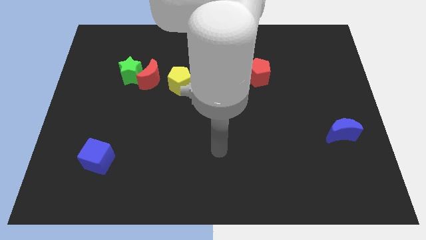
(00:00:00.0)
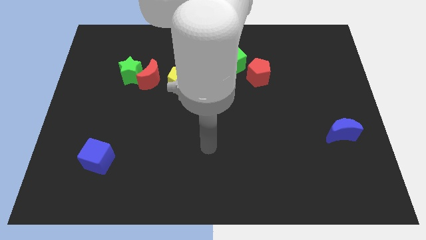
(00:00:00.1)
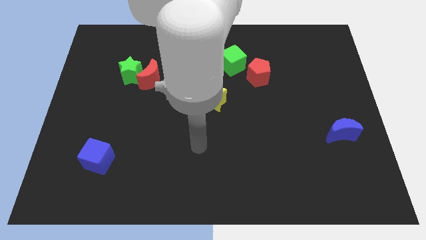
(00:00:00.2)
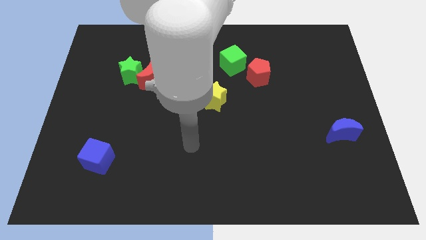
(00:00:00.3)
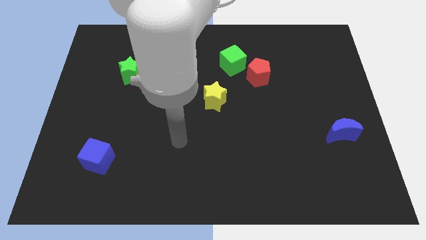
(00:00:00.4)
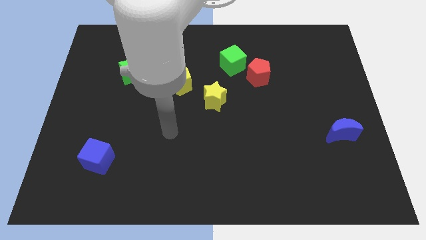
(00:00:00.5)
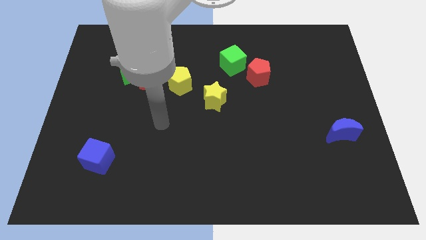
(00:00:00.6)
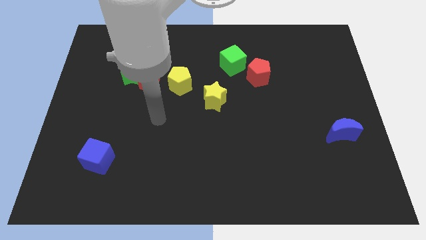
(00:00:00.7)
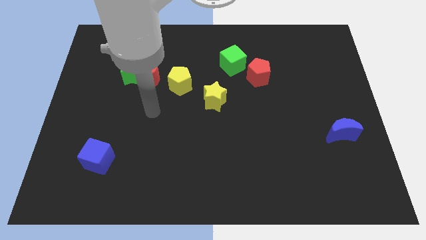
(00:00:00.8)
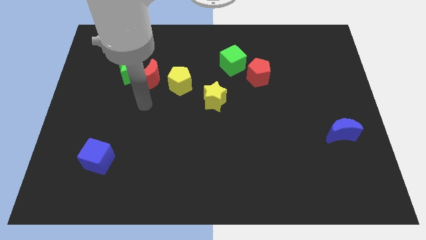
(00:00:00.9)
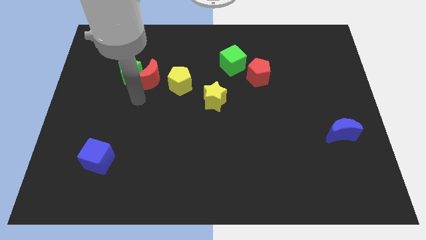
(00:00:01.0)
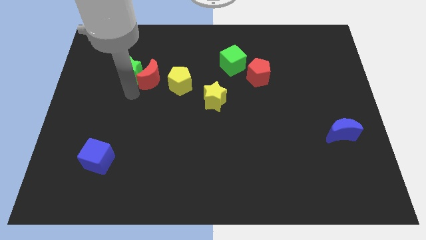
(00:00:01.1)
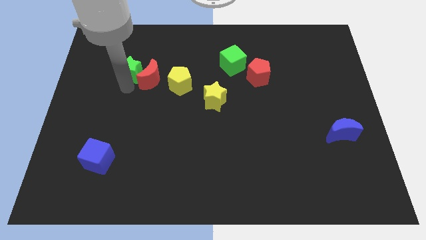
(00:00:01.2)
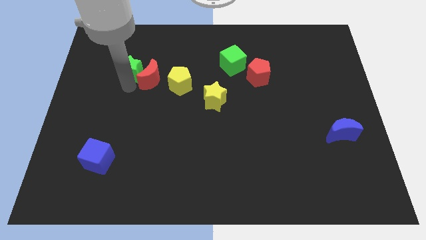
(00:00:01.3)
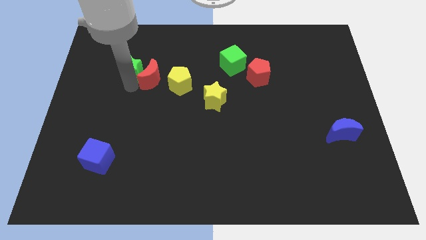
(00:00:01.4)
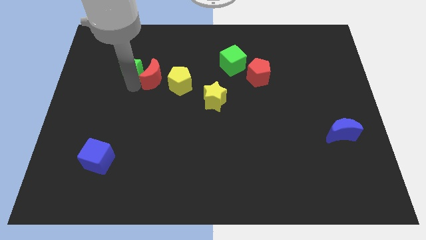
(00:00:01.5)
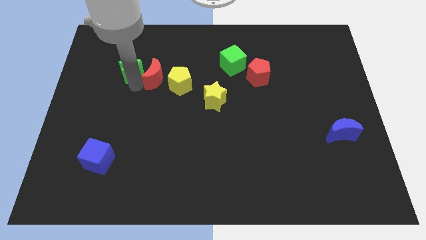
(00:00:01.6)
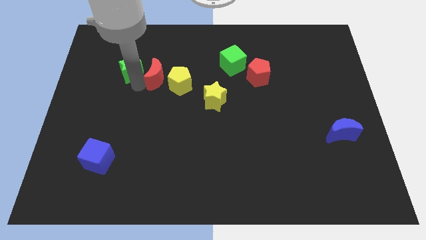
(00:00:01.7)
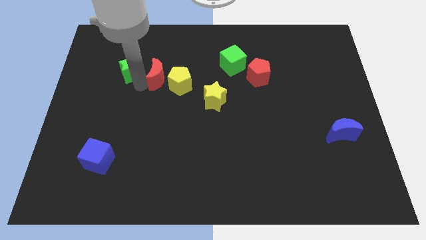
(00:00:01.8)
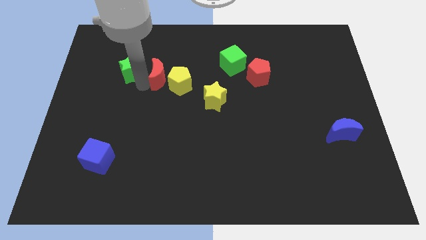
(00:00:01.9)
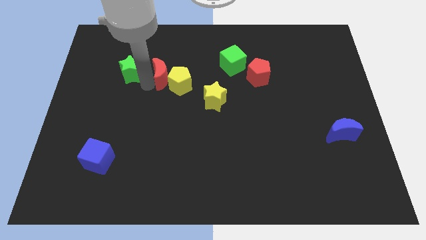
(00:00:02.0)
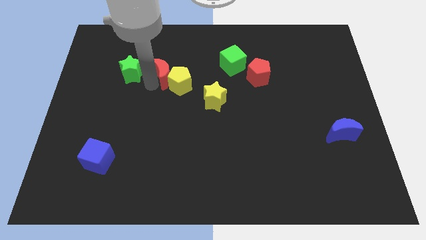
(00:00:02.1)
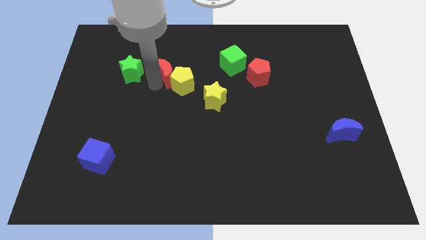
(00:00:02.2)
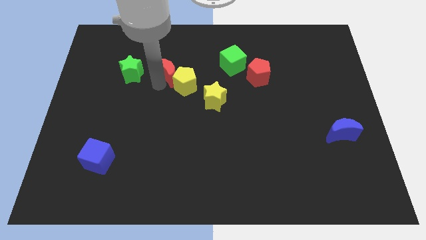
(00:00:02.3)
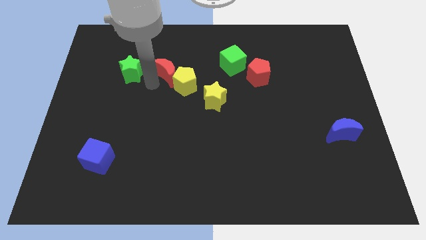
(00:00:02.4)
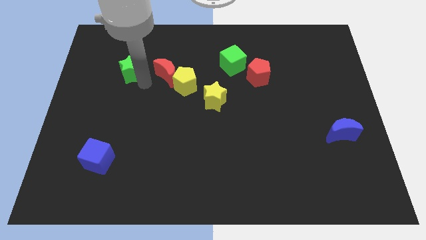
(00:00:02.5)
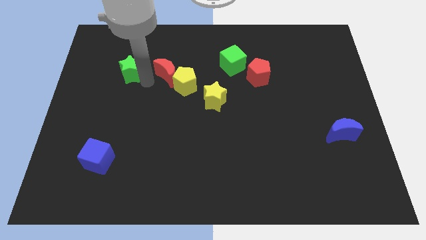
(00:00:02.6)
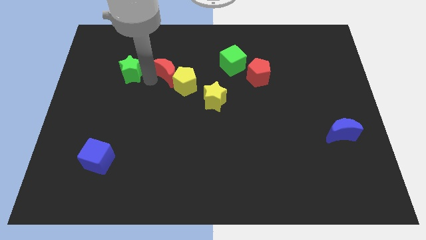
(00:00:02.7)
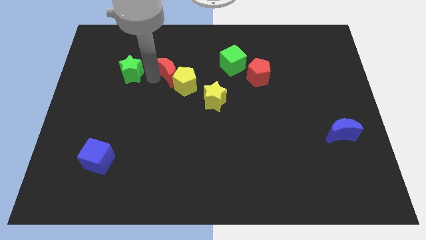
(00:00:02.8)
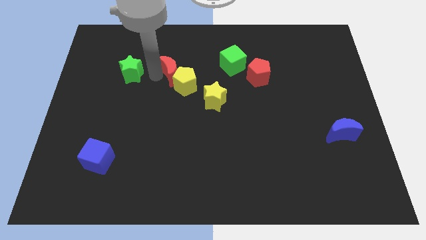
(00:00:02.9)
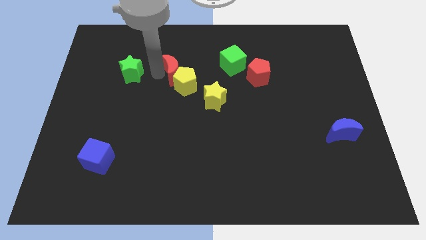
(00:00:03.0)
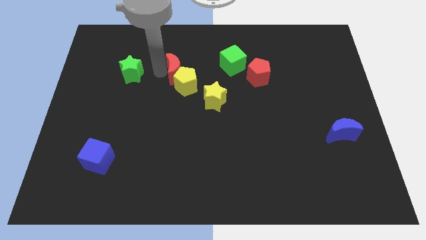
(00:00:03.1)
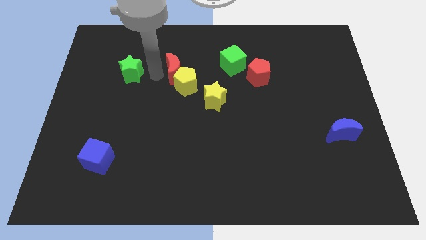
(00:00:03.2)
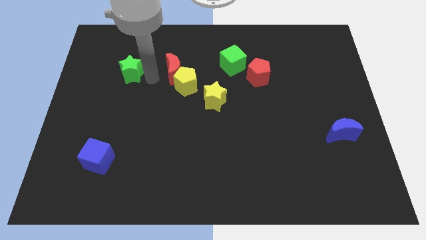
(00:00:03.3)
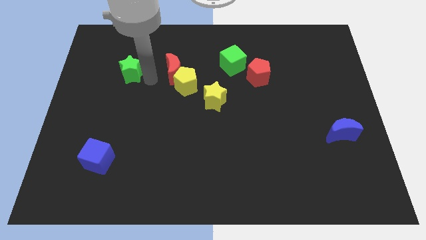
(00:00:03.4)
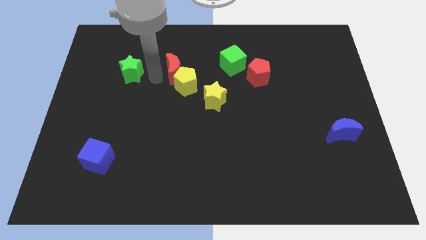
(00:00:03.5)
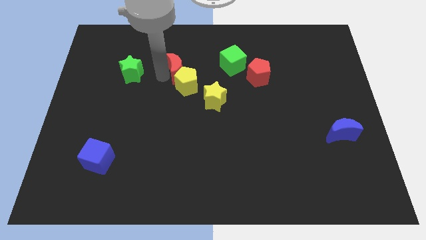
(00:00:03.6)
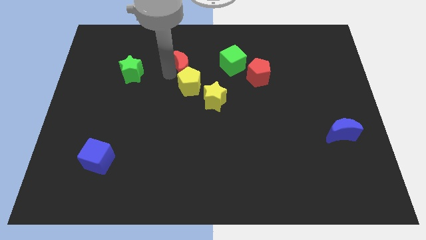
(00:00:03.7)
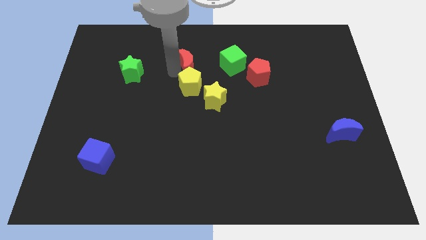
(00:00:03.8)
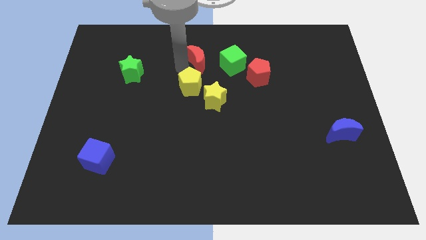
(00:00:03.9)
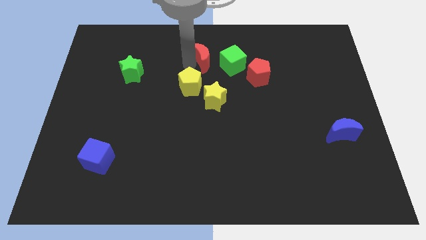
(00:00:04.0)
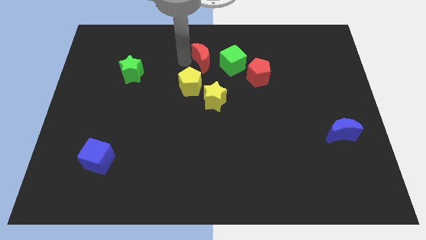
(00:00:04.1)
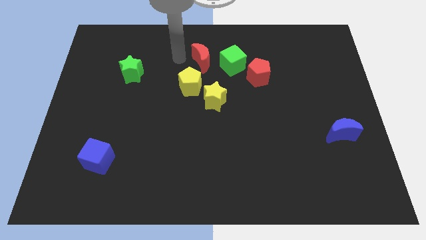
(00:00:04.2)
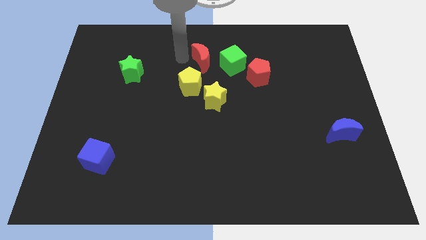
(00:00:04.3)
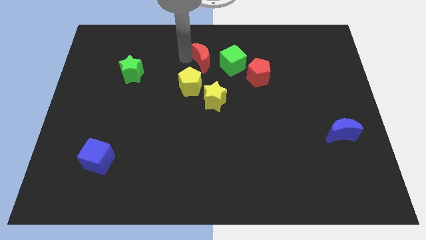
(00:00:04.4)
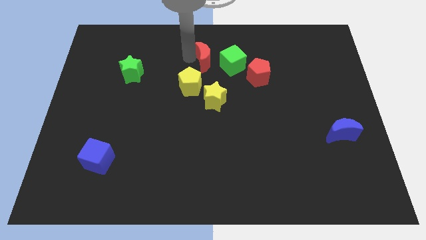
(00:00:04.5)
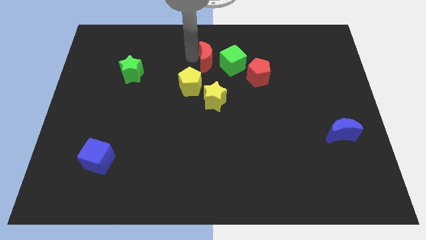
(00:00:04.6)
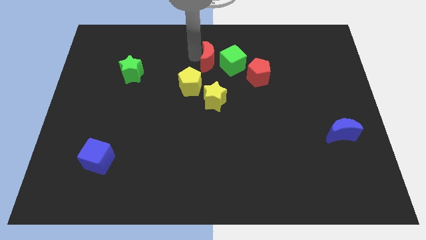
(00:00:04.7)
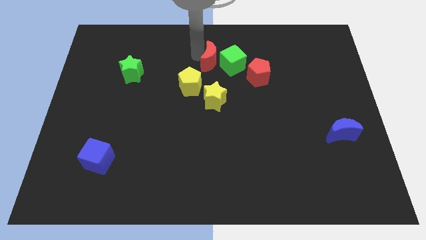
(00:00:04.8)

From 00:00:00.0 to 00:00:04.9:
slide the red moon next to the green cube

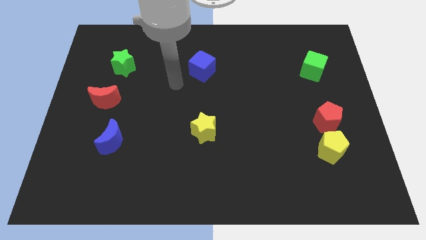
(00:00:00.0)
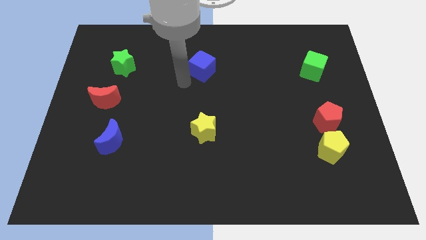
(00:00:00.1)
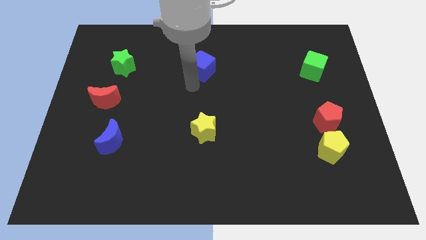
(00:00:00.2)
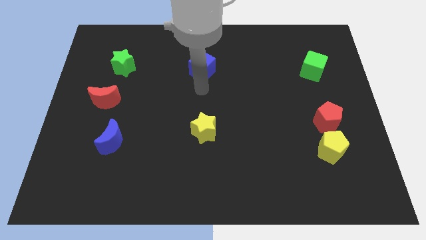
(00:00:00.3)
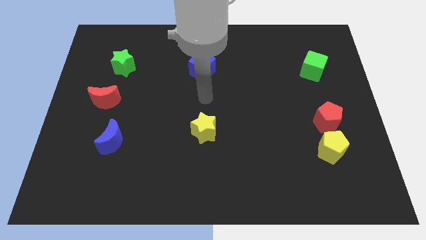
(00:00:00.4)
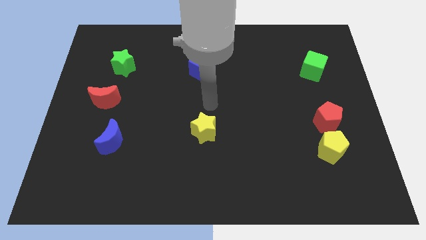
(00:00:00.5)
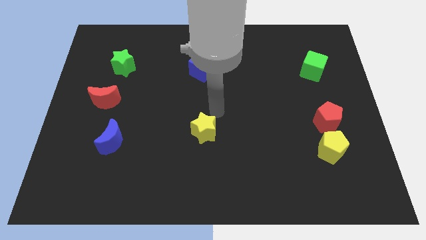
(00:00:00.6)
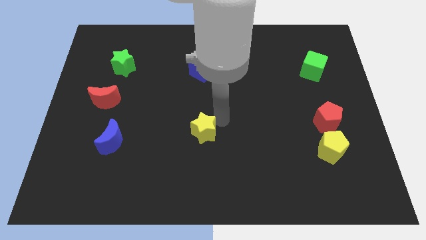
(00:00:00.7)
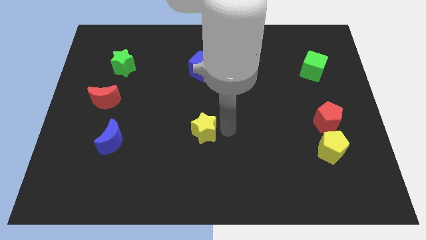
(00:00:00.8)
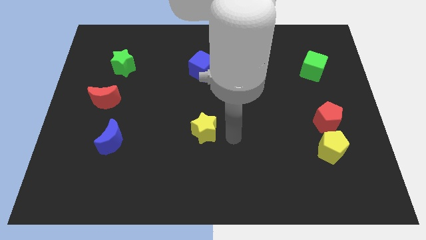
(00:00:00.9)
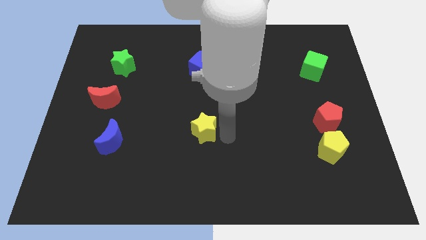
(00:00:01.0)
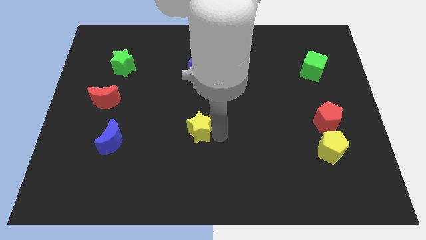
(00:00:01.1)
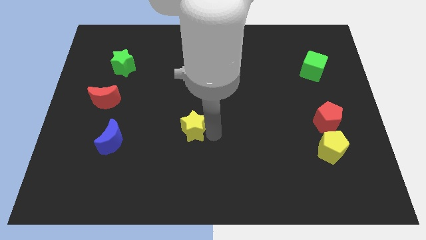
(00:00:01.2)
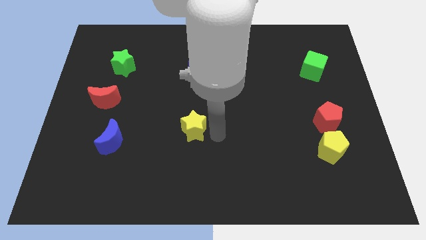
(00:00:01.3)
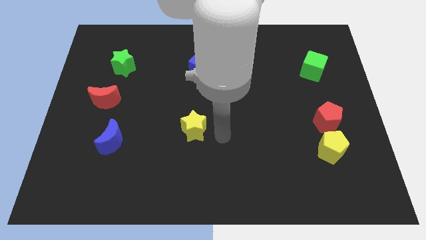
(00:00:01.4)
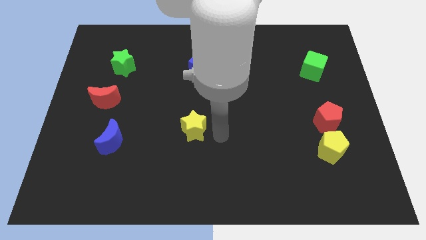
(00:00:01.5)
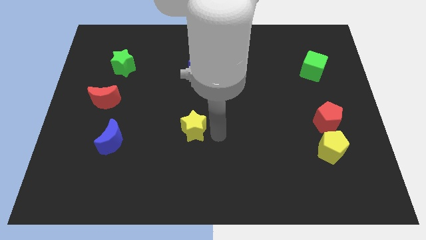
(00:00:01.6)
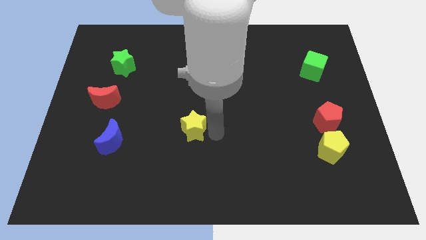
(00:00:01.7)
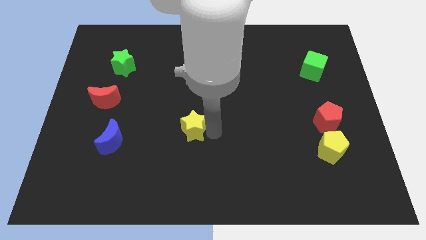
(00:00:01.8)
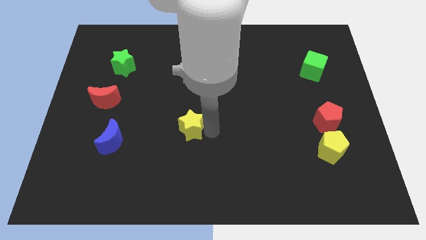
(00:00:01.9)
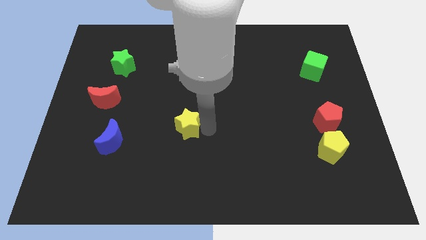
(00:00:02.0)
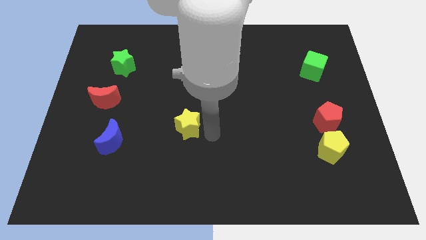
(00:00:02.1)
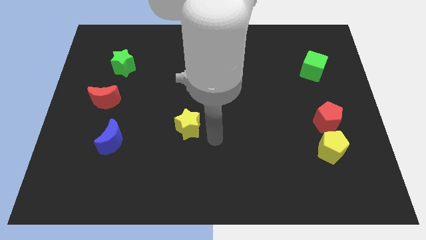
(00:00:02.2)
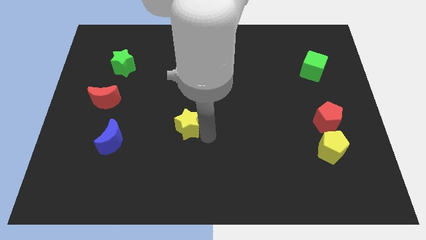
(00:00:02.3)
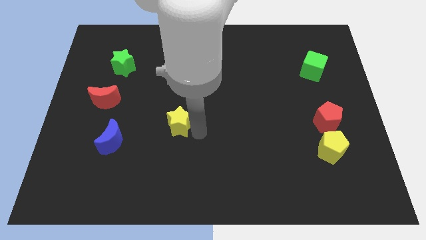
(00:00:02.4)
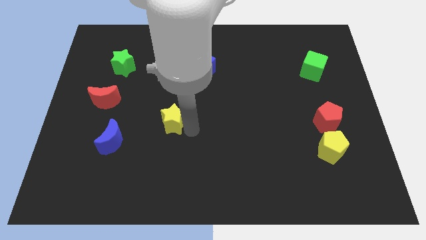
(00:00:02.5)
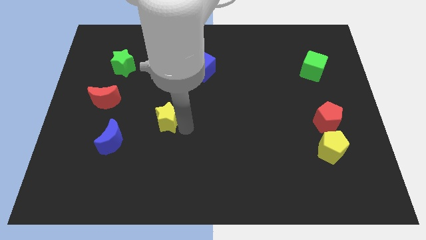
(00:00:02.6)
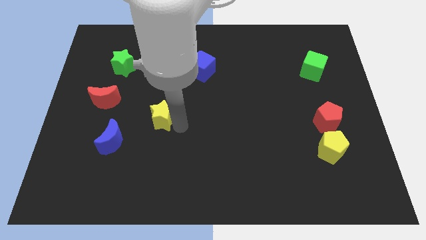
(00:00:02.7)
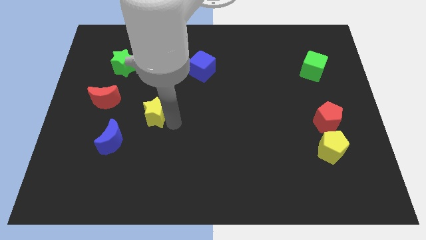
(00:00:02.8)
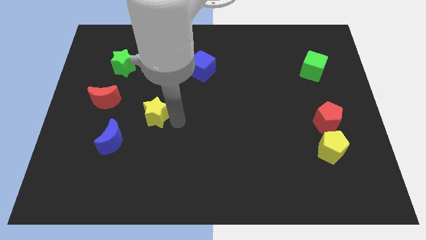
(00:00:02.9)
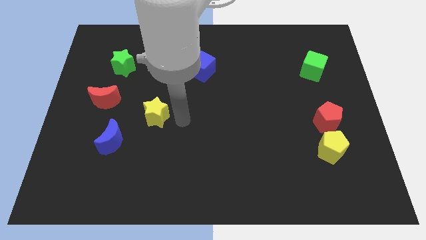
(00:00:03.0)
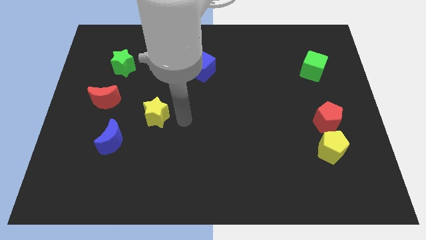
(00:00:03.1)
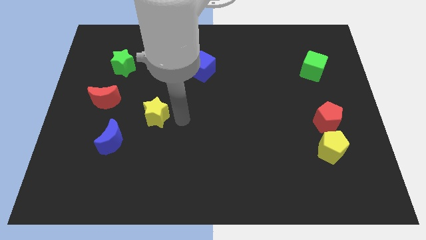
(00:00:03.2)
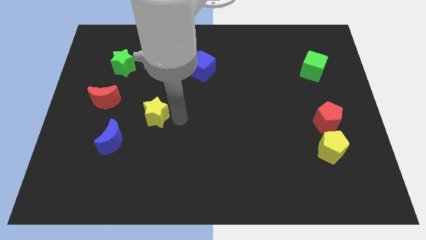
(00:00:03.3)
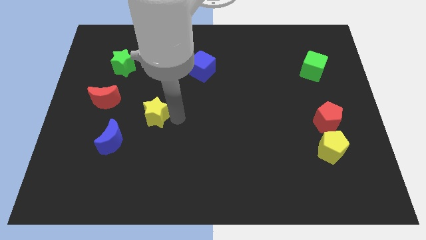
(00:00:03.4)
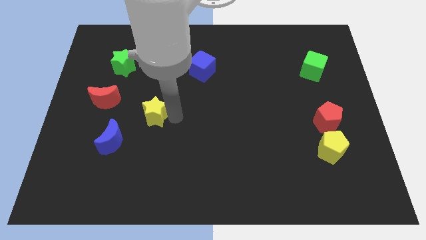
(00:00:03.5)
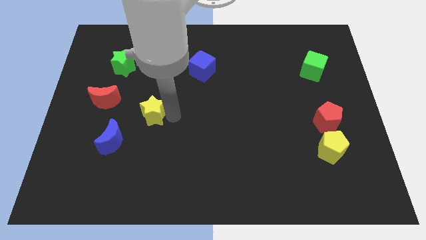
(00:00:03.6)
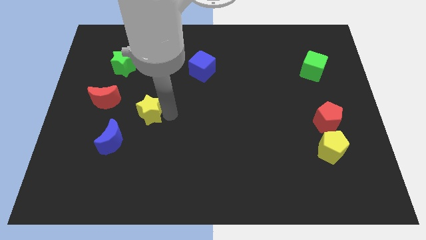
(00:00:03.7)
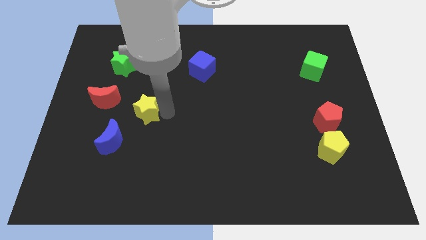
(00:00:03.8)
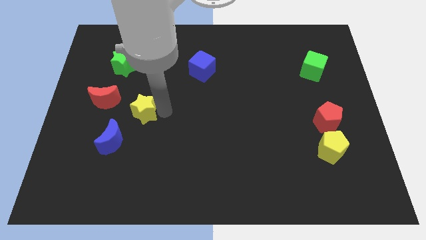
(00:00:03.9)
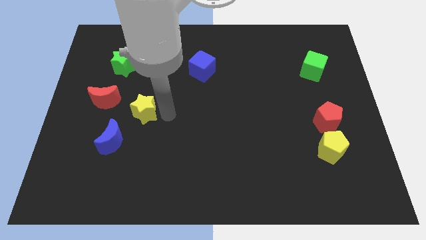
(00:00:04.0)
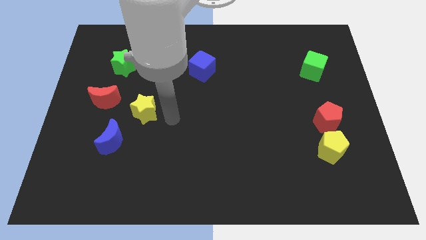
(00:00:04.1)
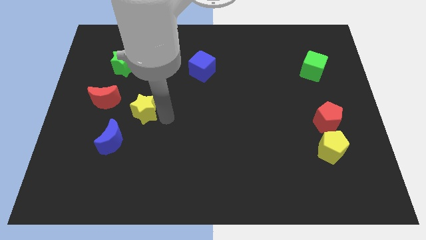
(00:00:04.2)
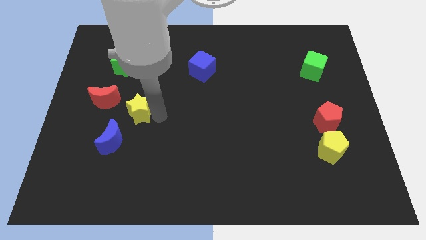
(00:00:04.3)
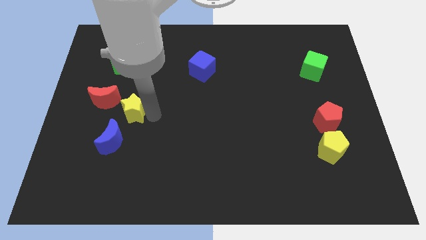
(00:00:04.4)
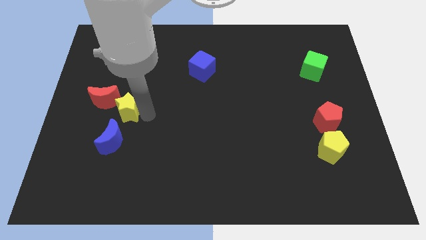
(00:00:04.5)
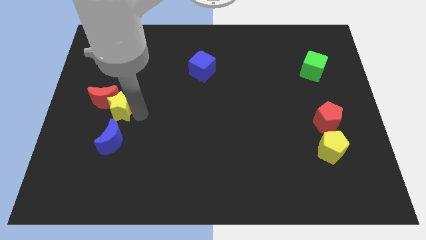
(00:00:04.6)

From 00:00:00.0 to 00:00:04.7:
move the yellow star towards the red moon
